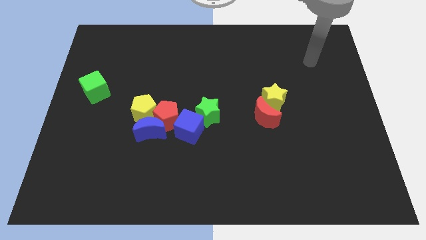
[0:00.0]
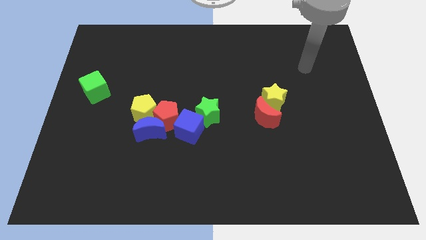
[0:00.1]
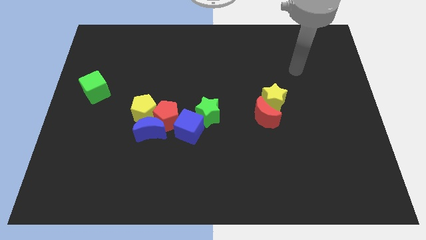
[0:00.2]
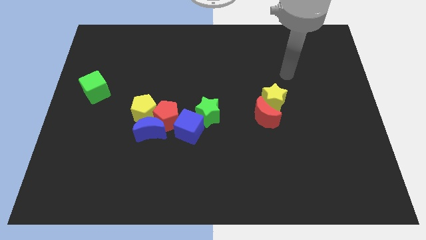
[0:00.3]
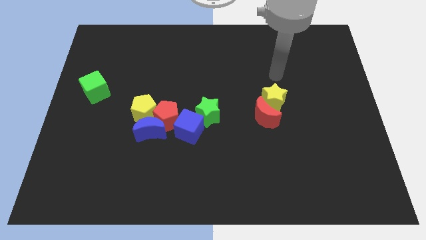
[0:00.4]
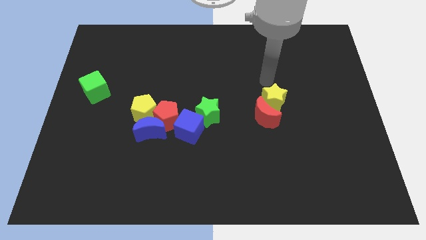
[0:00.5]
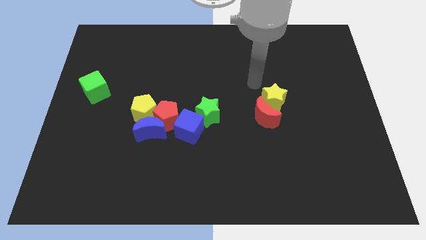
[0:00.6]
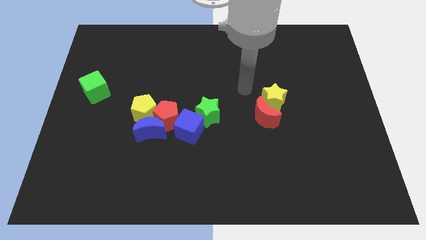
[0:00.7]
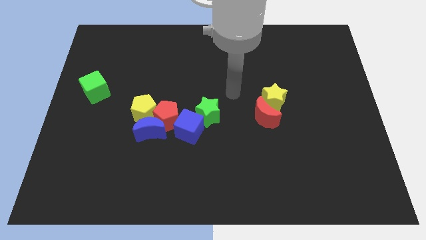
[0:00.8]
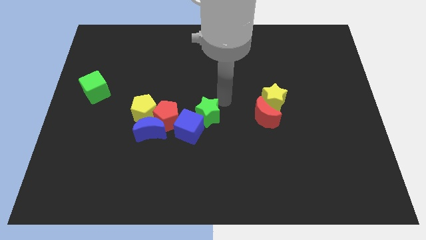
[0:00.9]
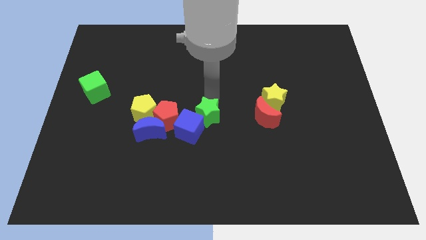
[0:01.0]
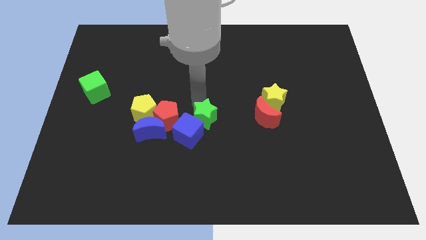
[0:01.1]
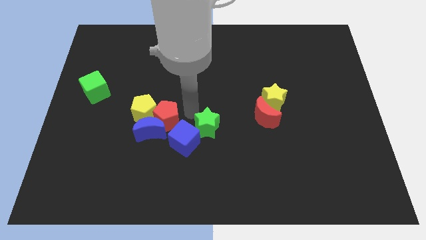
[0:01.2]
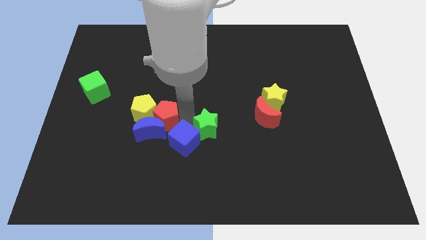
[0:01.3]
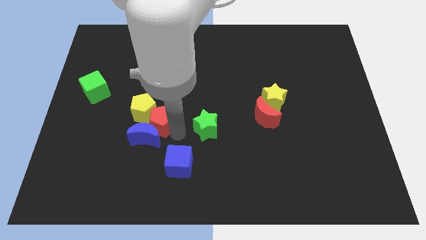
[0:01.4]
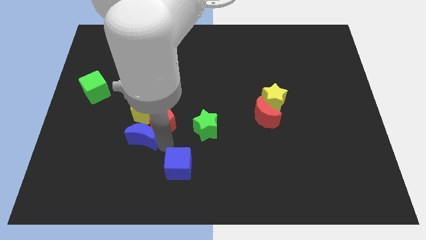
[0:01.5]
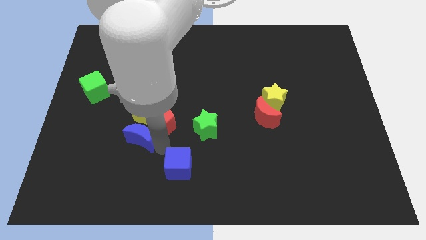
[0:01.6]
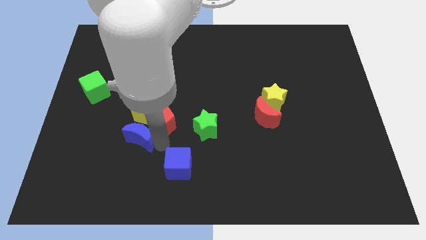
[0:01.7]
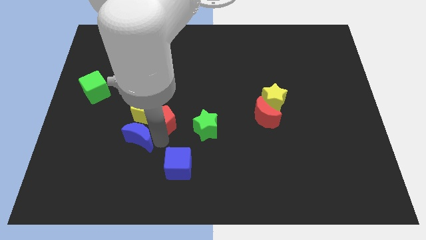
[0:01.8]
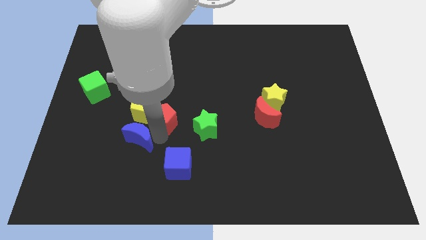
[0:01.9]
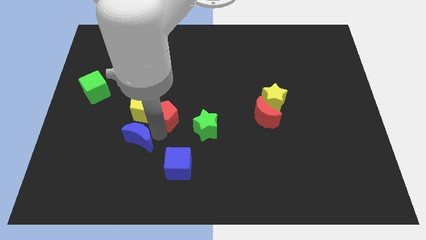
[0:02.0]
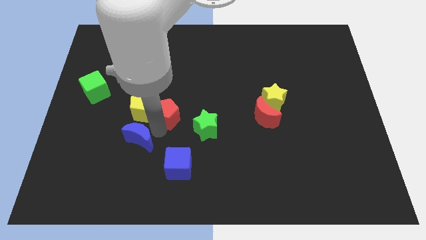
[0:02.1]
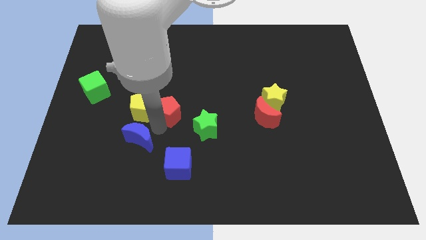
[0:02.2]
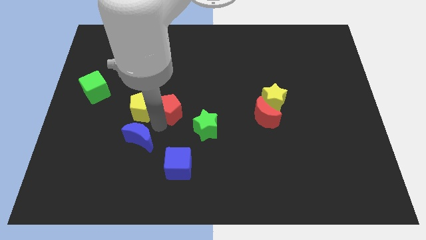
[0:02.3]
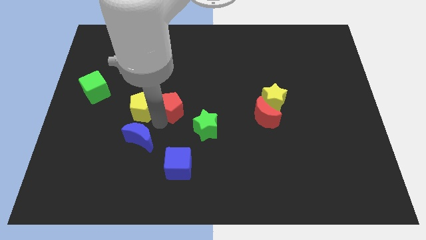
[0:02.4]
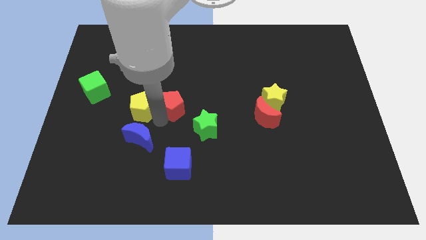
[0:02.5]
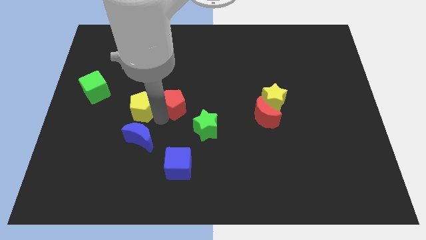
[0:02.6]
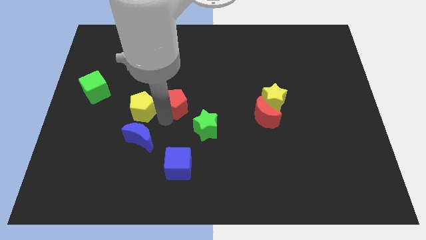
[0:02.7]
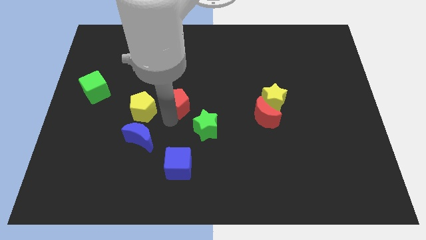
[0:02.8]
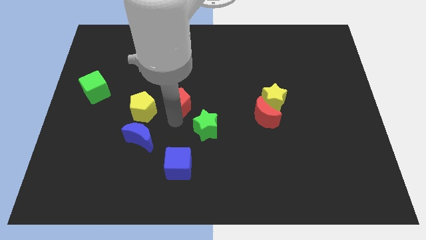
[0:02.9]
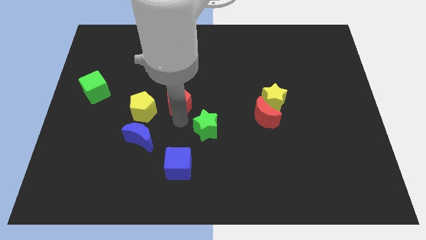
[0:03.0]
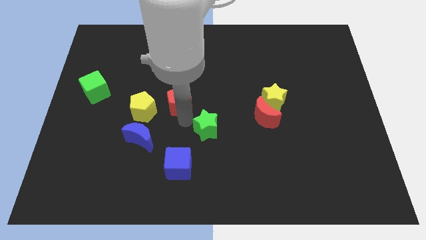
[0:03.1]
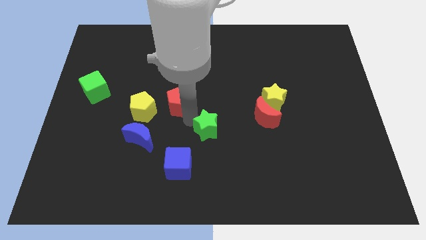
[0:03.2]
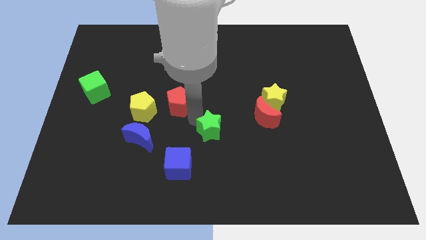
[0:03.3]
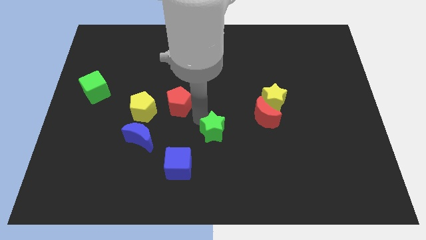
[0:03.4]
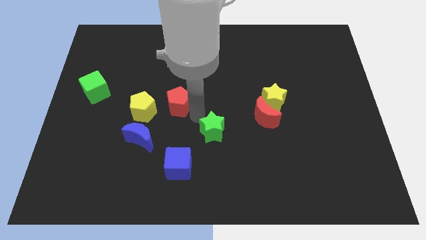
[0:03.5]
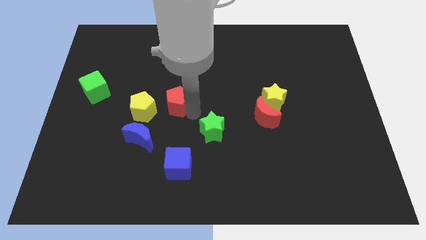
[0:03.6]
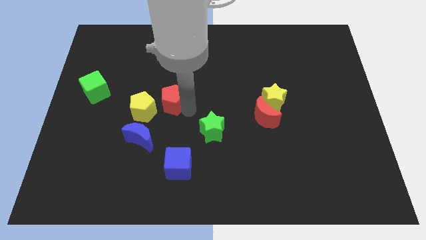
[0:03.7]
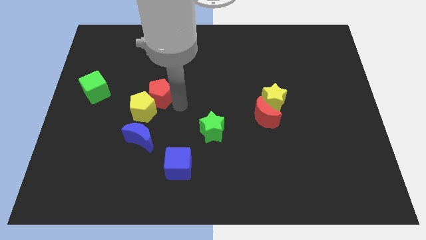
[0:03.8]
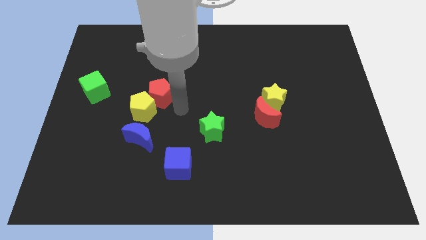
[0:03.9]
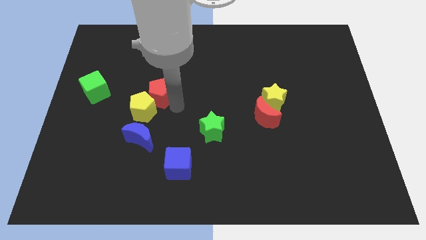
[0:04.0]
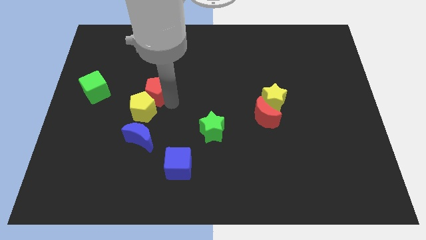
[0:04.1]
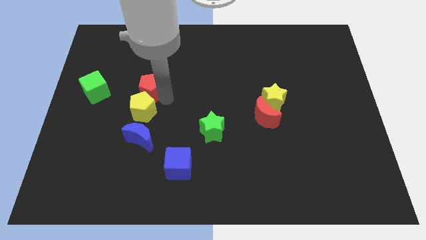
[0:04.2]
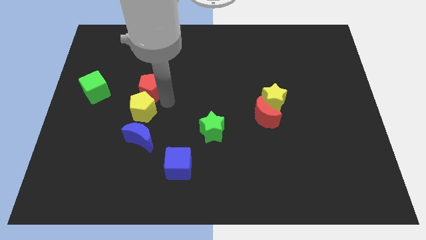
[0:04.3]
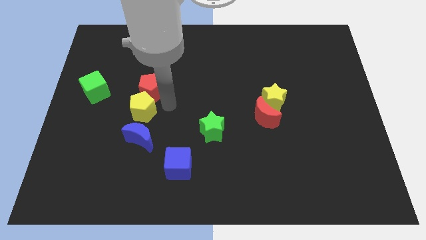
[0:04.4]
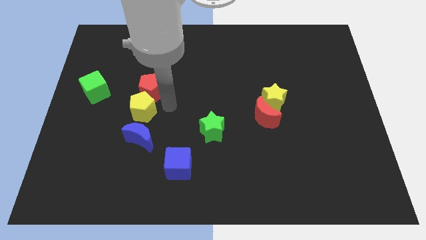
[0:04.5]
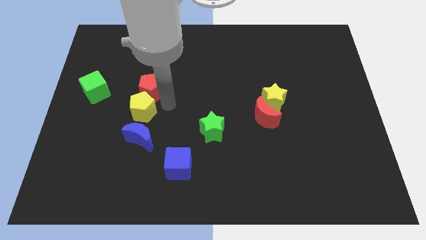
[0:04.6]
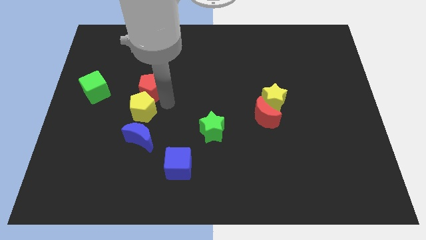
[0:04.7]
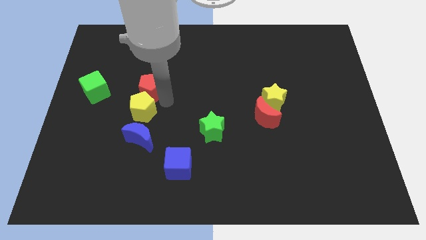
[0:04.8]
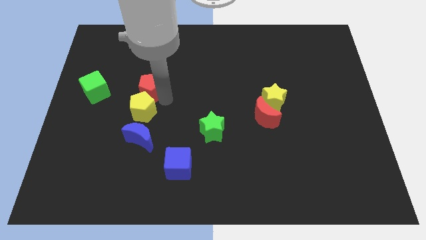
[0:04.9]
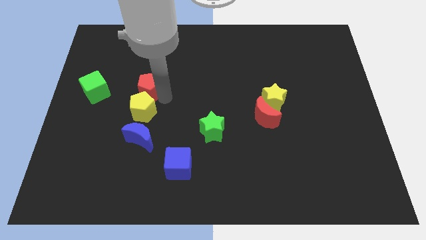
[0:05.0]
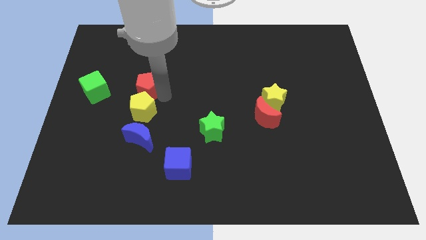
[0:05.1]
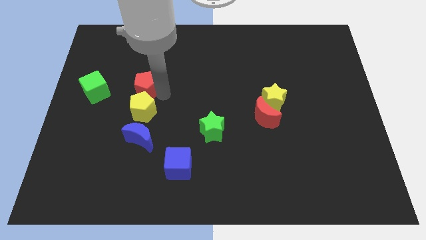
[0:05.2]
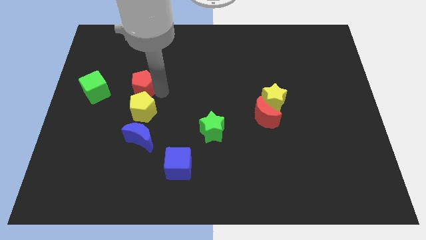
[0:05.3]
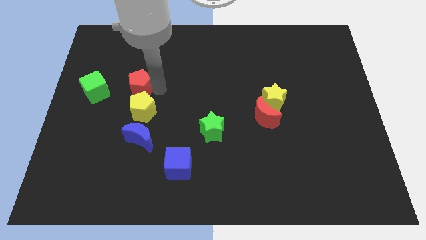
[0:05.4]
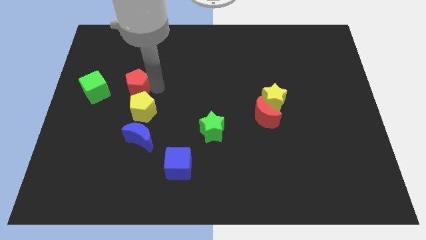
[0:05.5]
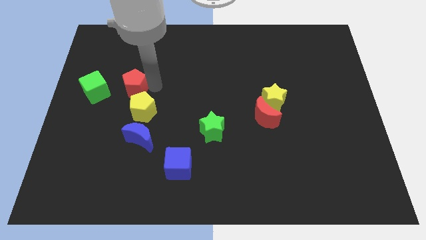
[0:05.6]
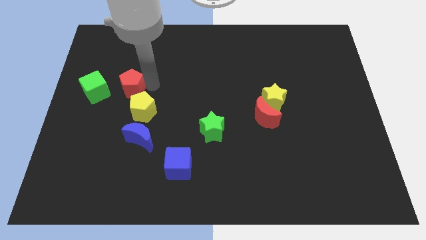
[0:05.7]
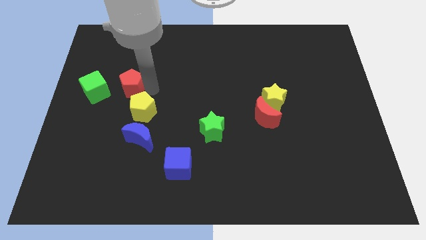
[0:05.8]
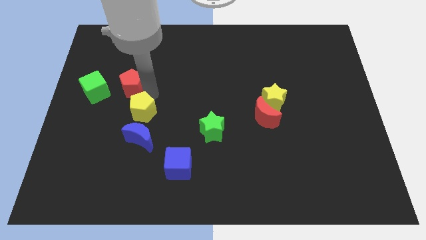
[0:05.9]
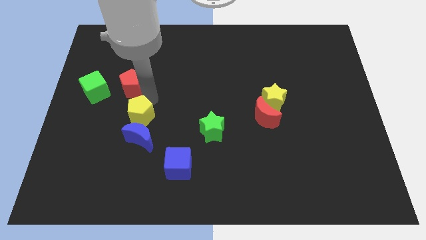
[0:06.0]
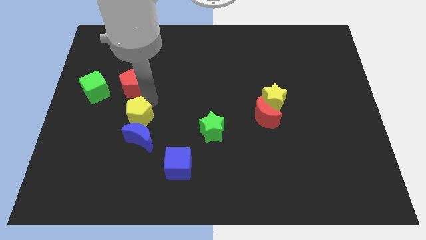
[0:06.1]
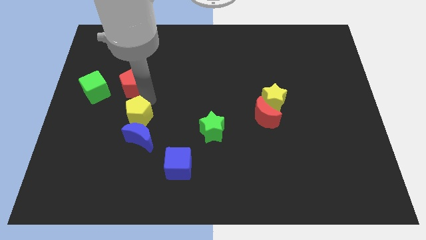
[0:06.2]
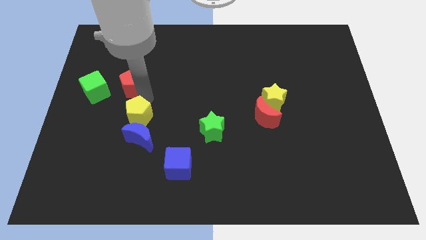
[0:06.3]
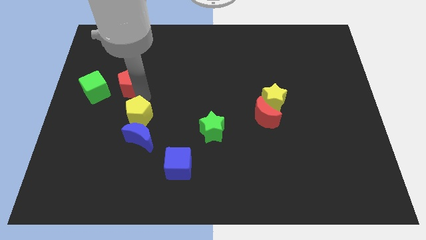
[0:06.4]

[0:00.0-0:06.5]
move the red pentagon to the top right side of the green cube
